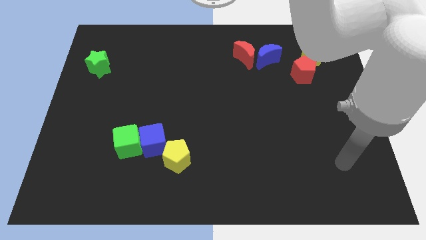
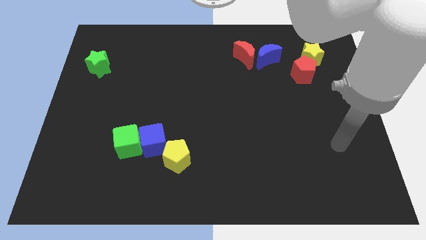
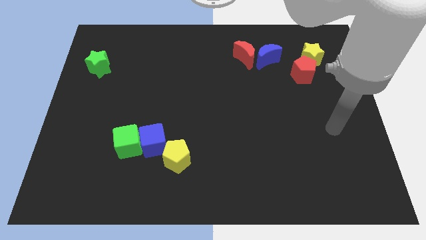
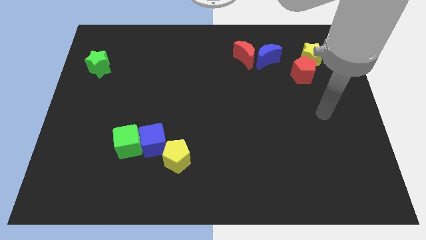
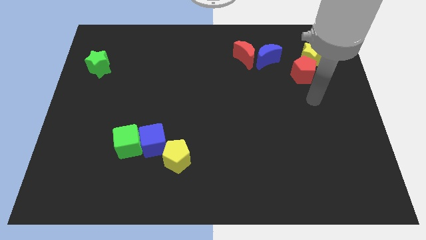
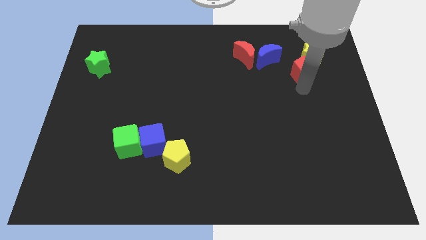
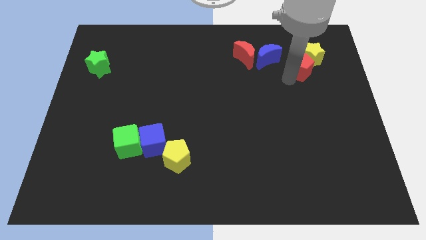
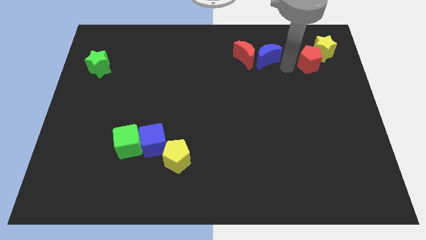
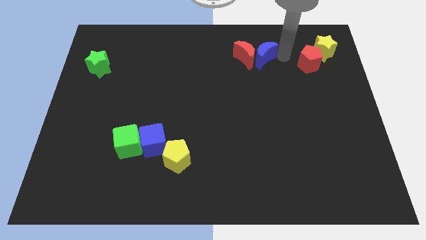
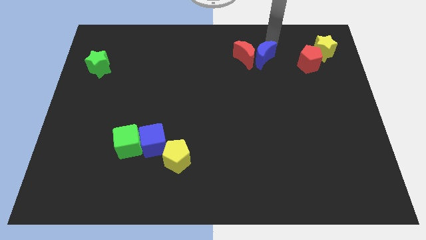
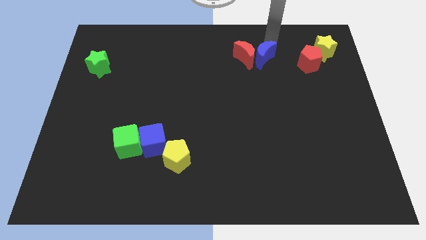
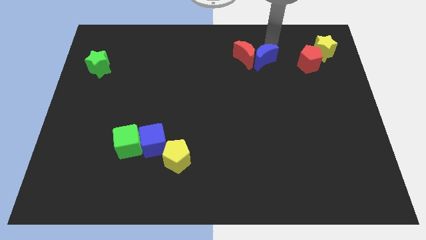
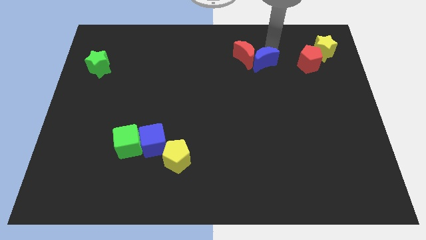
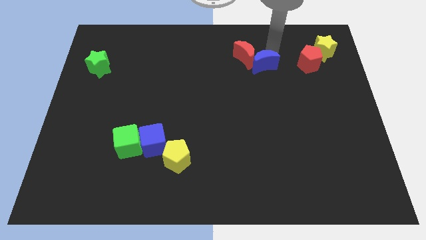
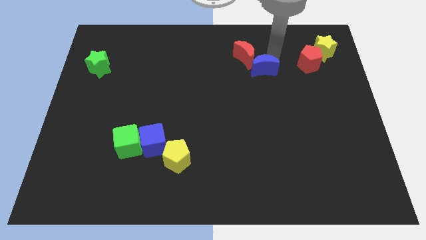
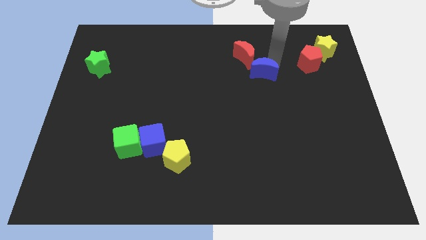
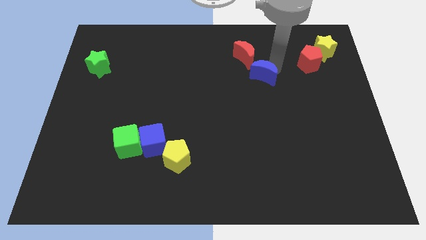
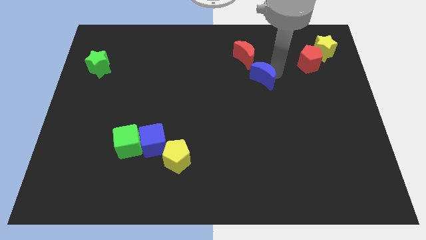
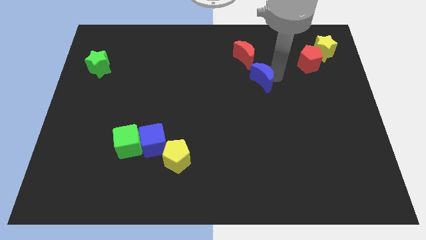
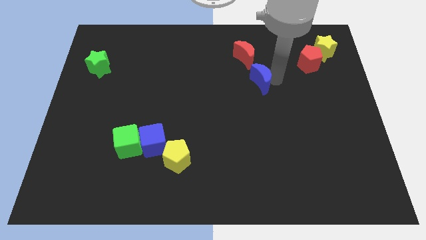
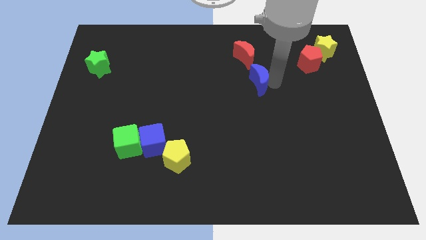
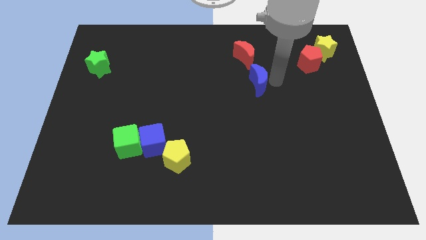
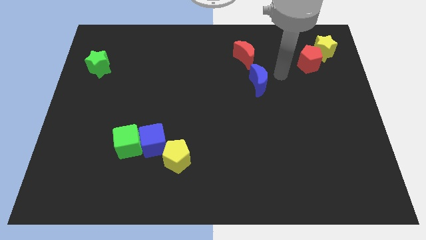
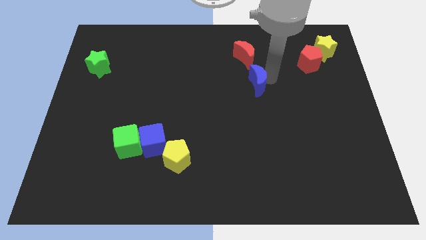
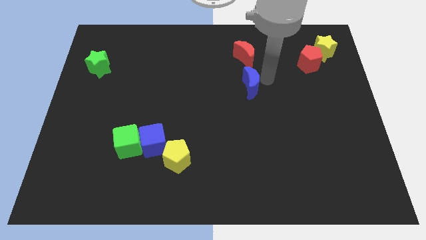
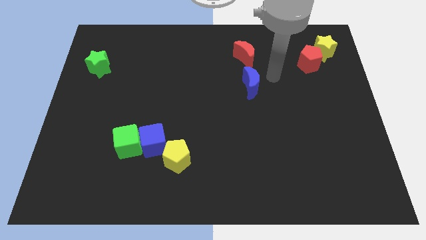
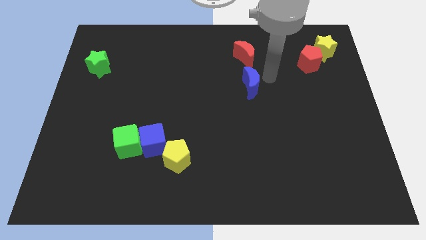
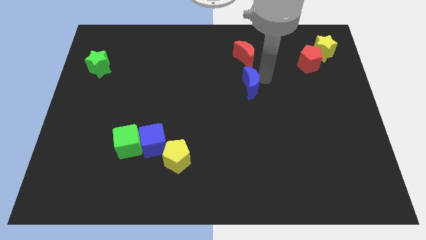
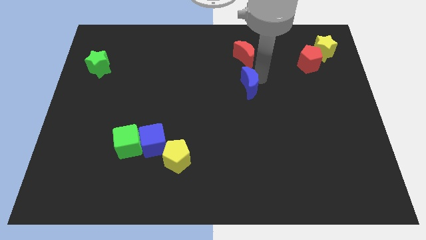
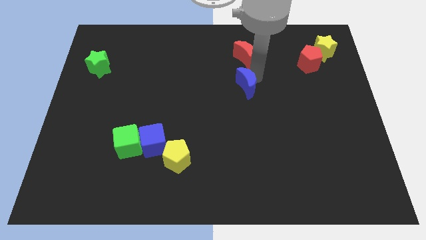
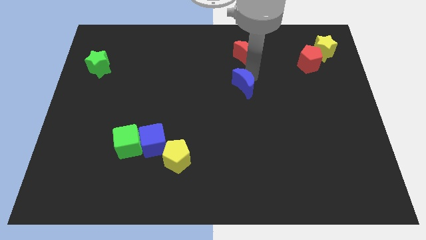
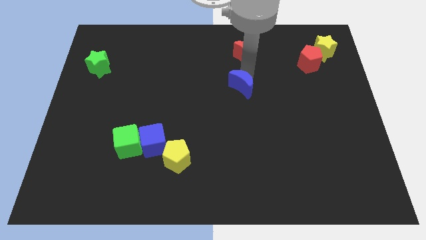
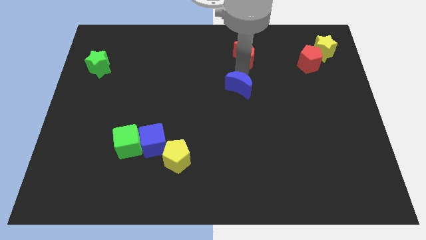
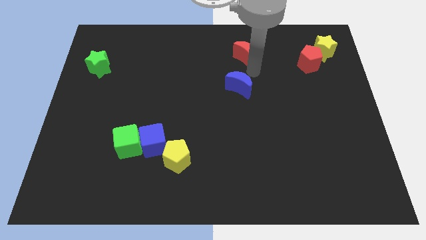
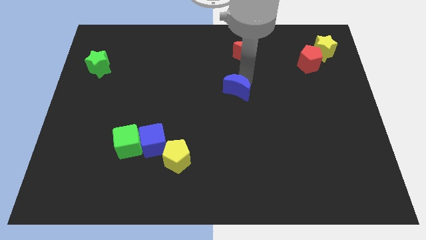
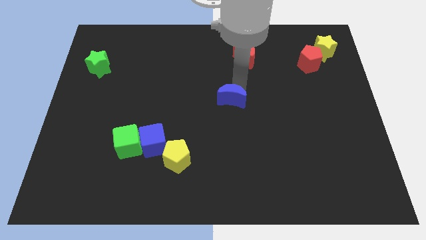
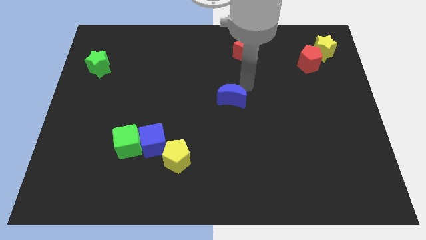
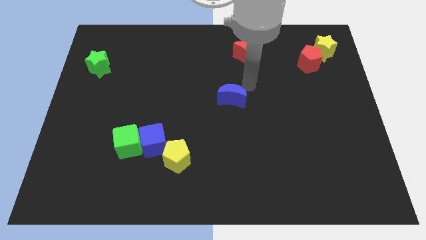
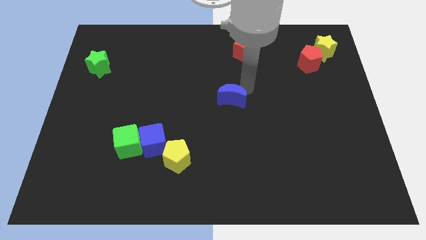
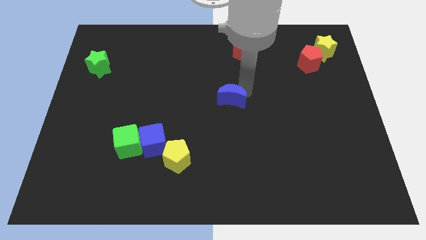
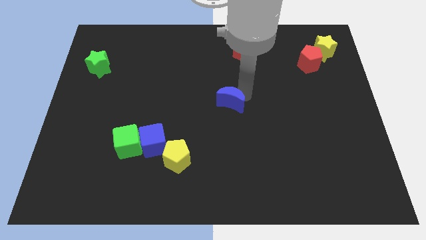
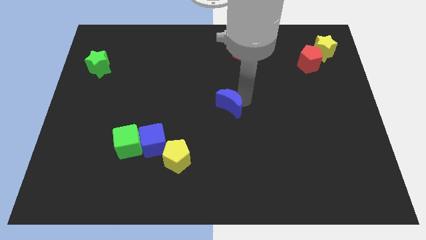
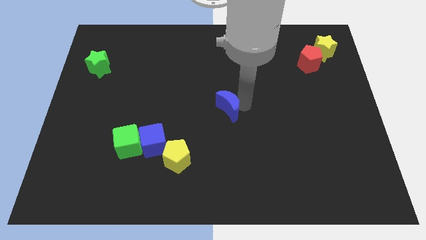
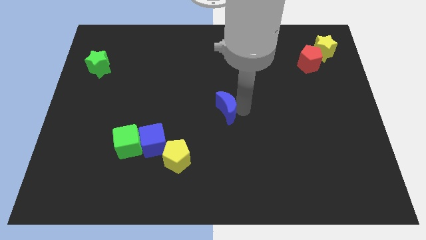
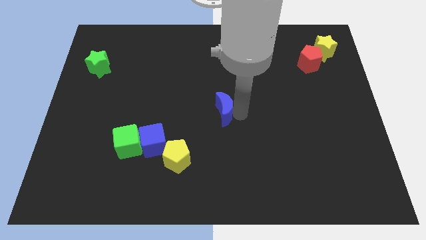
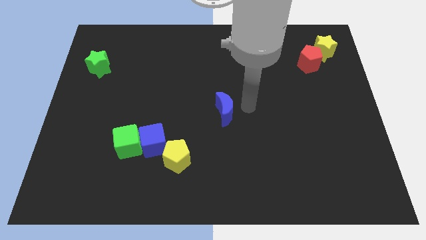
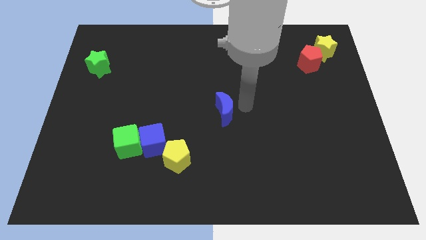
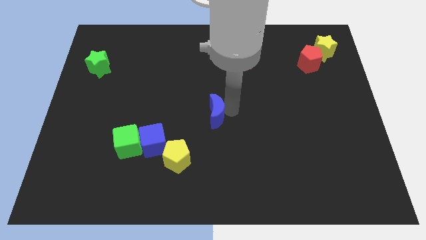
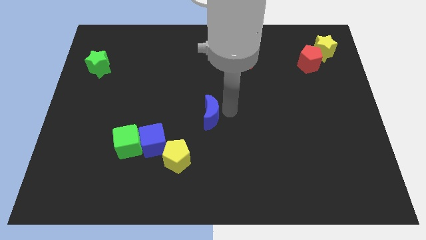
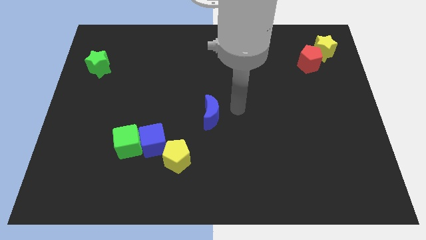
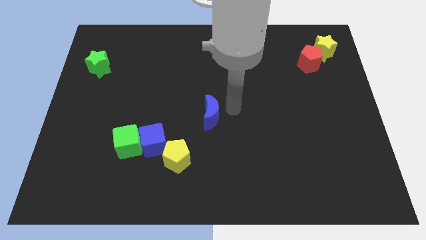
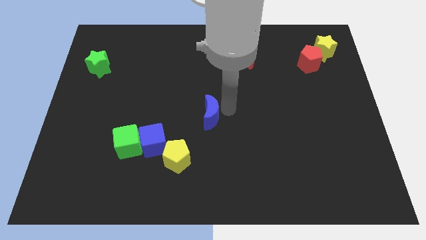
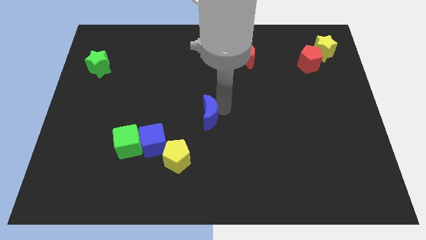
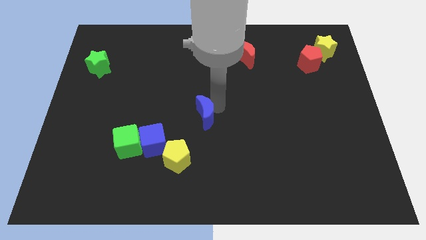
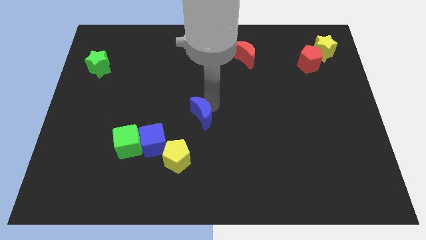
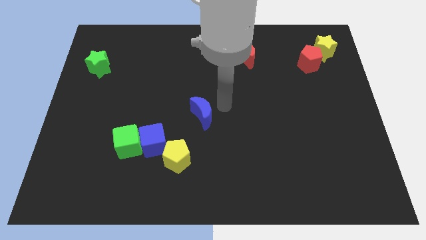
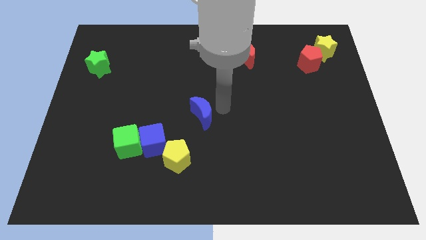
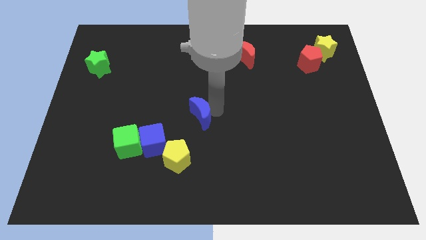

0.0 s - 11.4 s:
slide the blue moon to the top right side of the blue cube

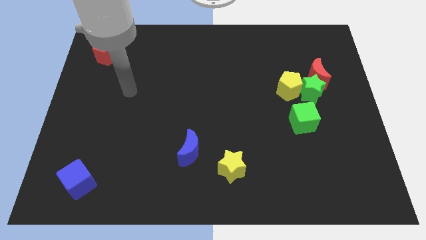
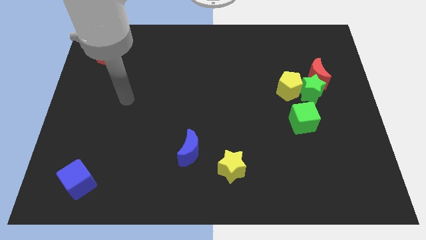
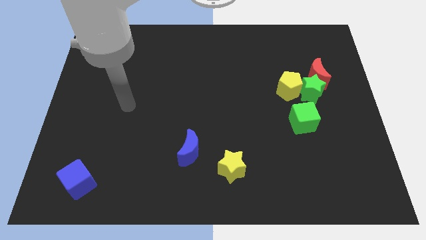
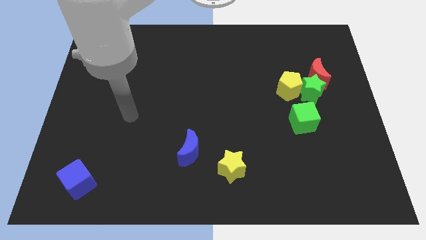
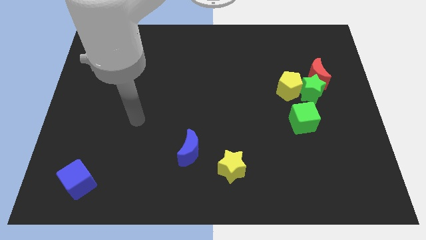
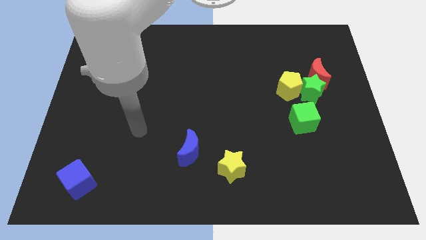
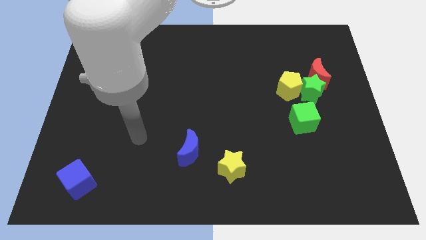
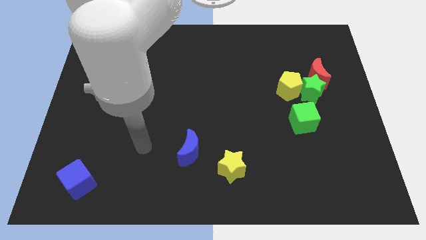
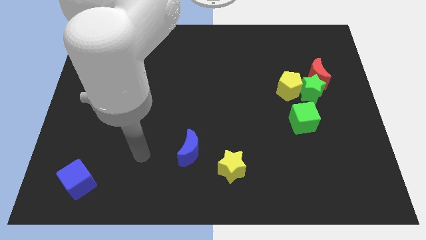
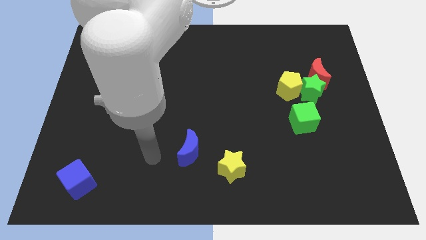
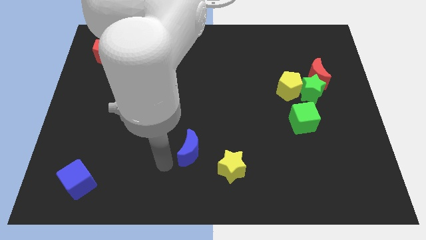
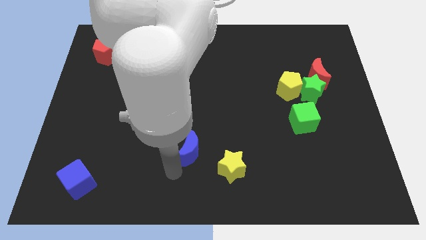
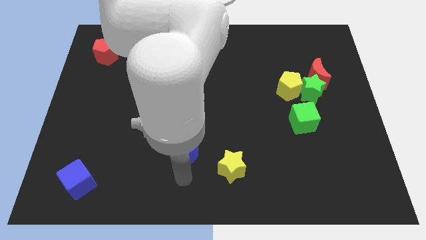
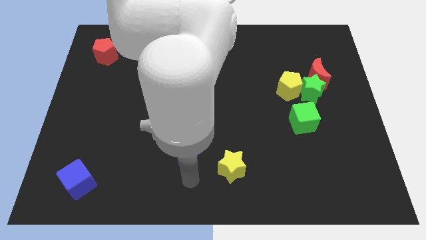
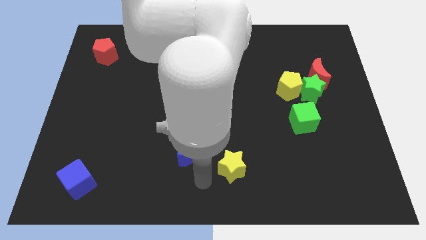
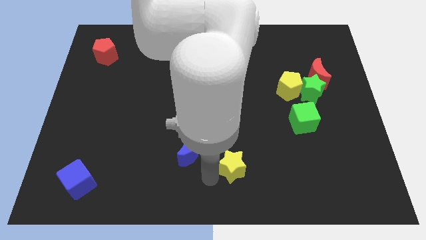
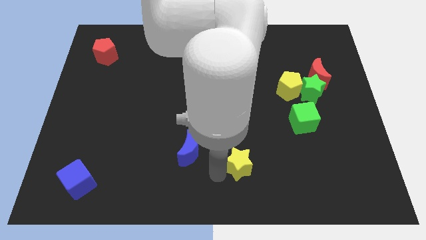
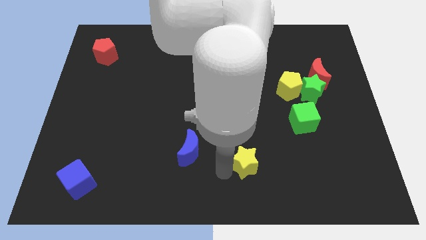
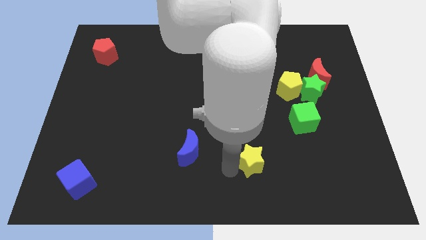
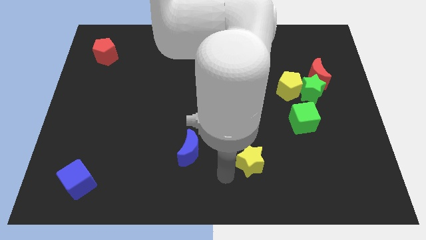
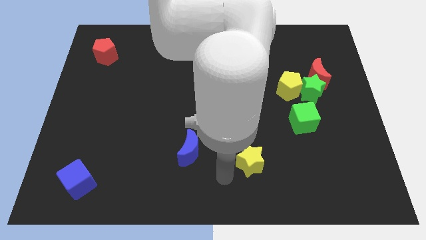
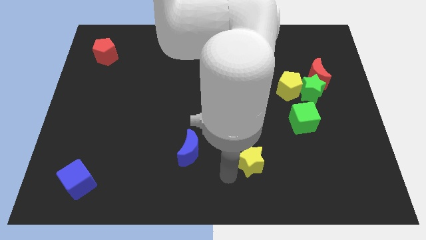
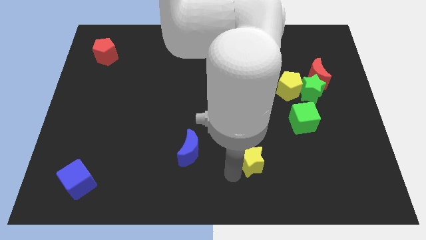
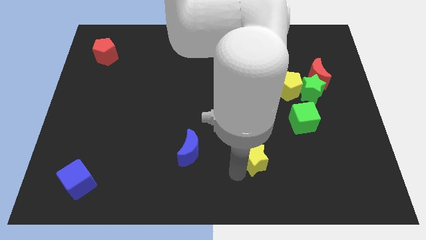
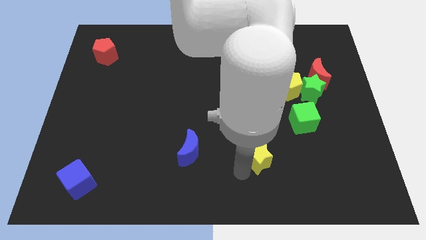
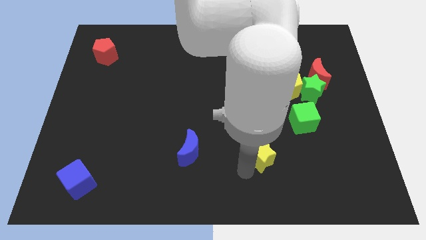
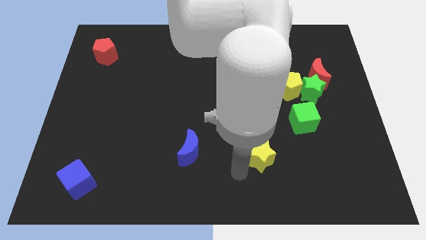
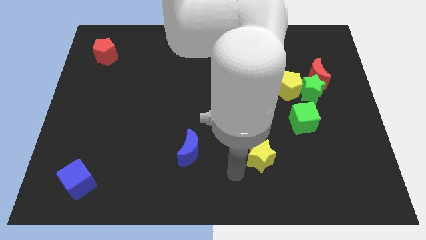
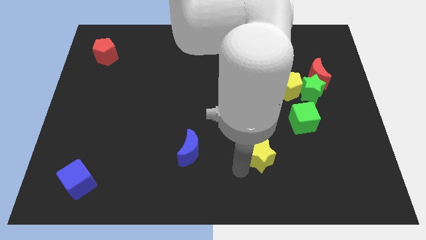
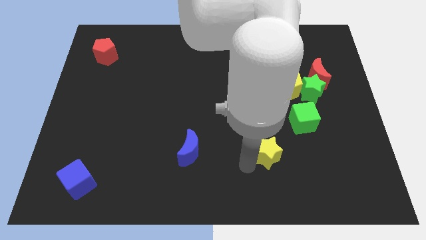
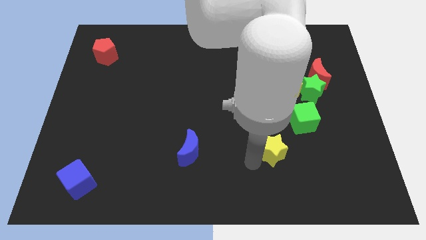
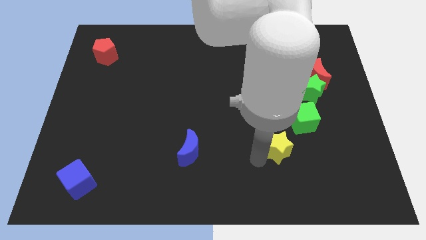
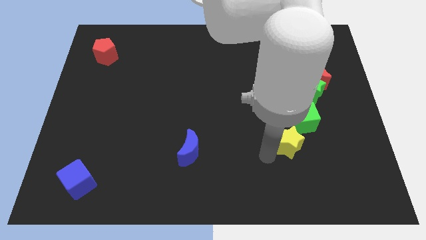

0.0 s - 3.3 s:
push the yellow star to the bottom of the yellow pentagon
